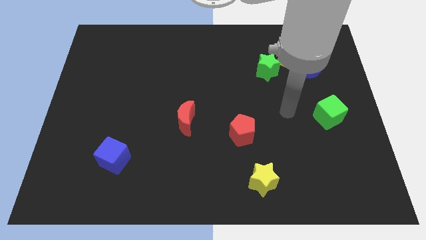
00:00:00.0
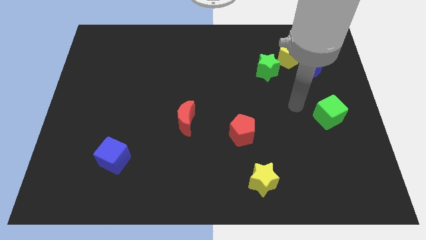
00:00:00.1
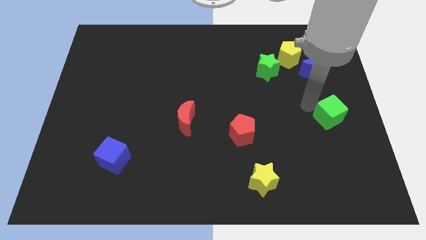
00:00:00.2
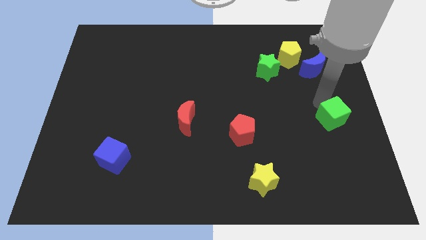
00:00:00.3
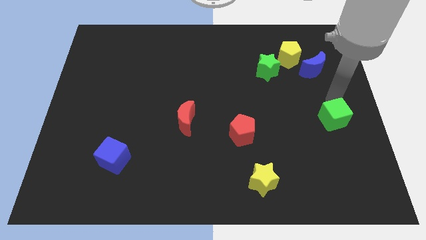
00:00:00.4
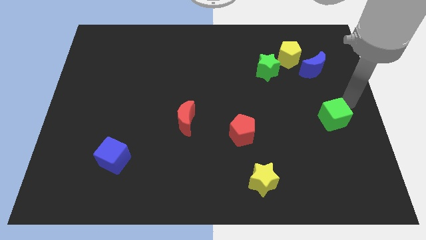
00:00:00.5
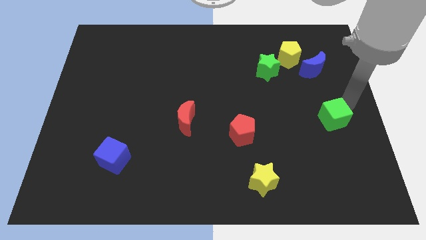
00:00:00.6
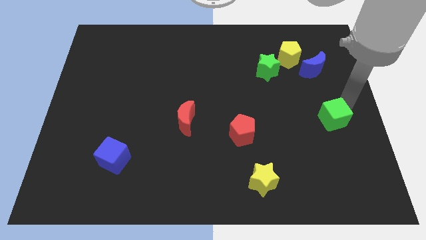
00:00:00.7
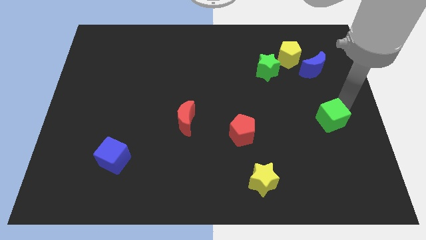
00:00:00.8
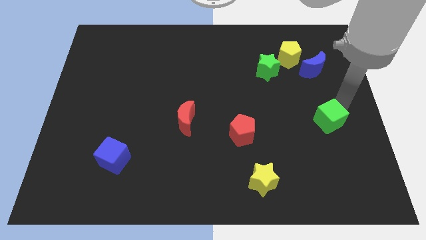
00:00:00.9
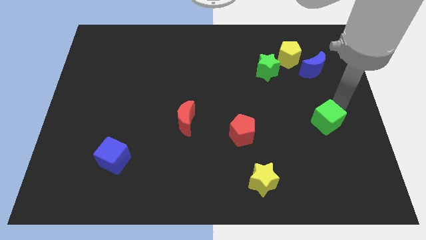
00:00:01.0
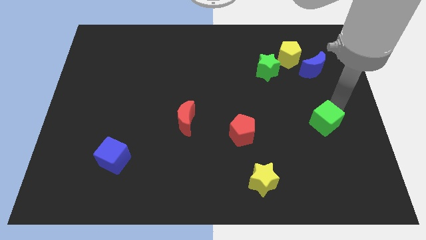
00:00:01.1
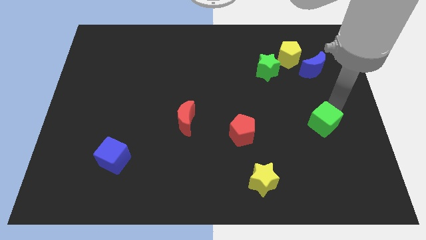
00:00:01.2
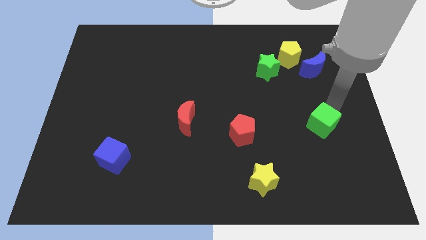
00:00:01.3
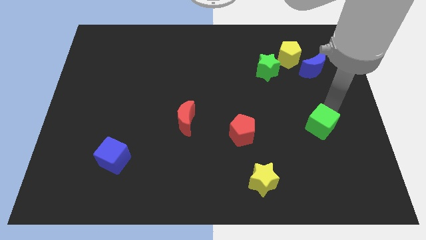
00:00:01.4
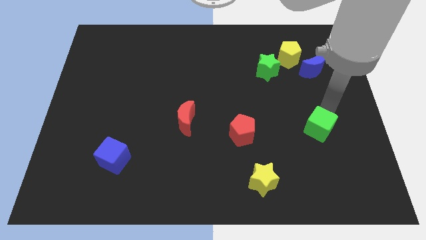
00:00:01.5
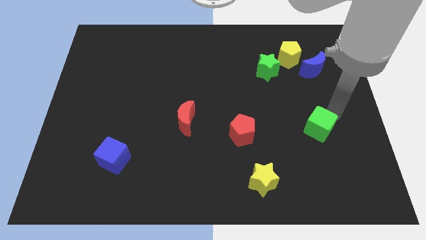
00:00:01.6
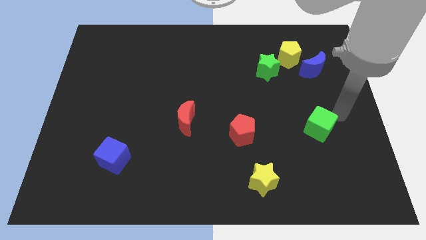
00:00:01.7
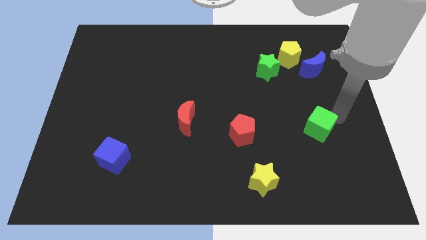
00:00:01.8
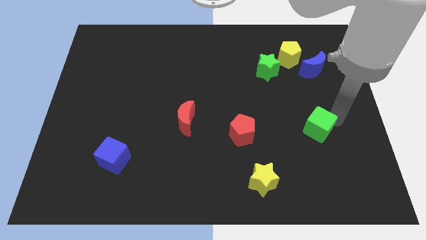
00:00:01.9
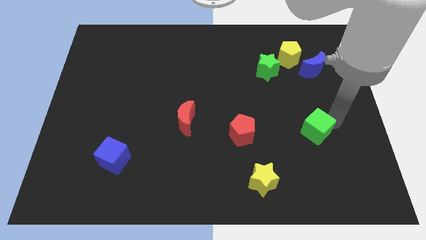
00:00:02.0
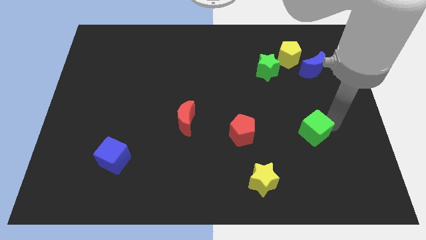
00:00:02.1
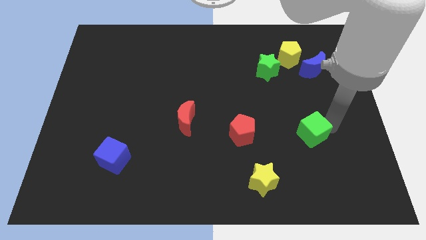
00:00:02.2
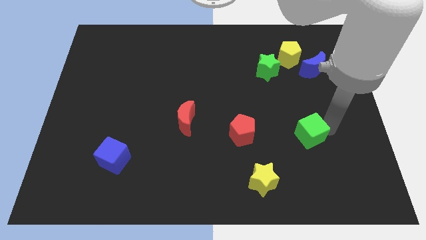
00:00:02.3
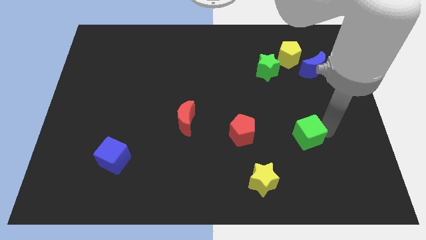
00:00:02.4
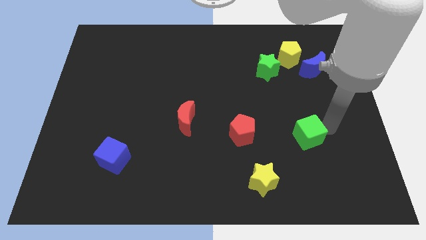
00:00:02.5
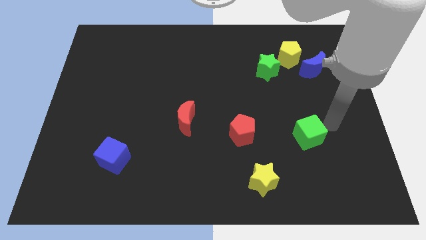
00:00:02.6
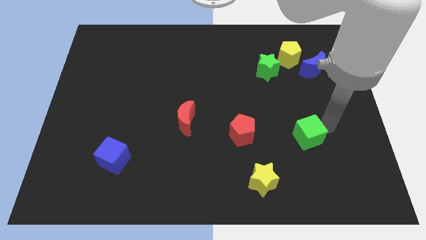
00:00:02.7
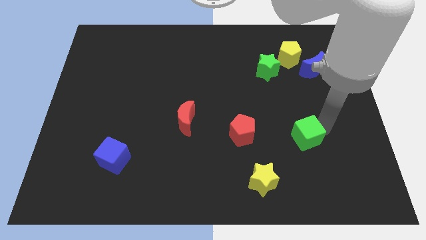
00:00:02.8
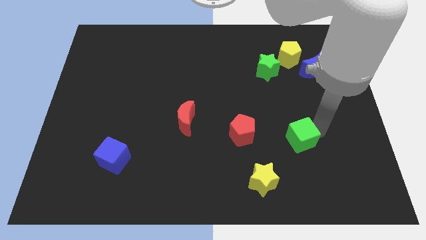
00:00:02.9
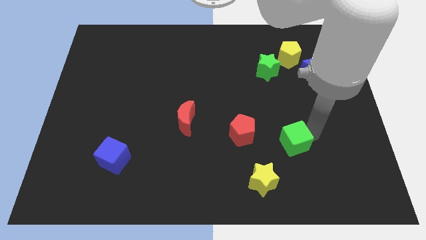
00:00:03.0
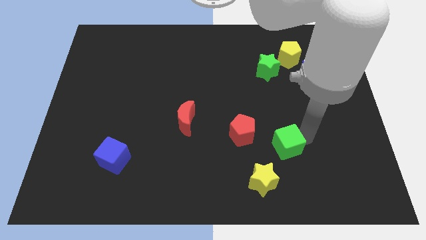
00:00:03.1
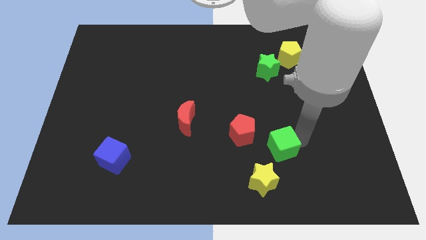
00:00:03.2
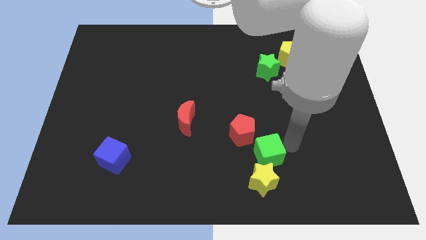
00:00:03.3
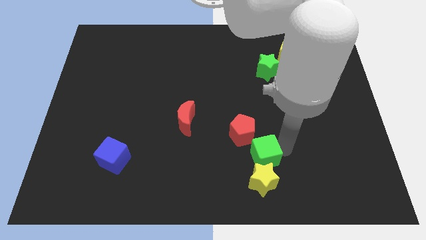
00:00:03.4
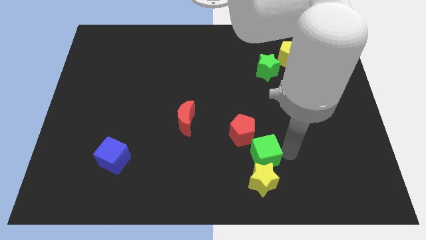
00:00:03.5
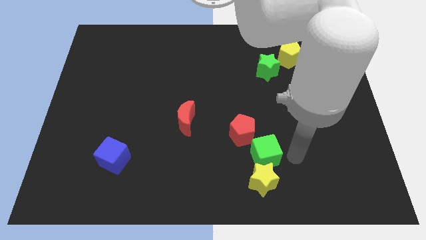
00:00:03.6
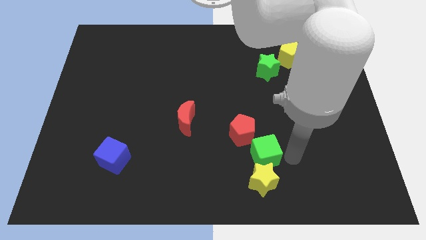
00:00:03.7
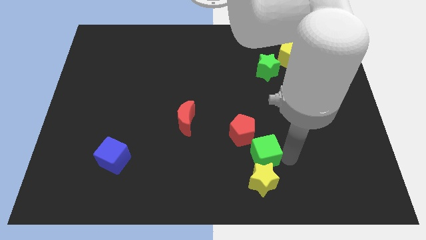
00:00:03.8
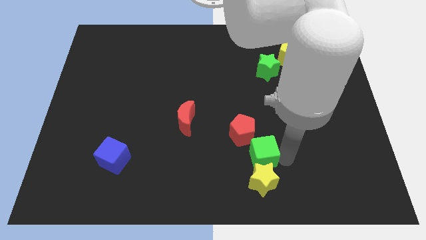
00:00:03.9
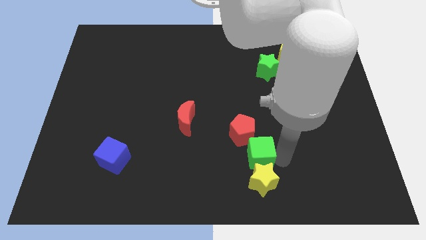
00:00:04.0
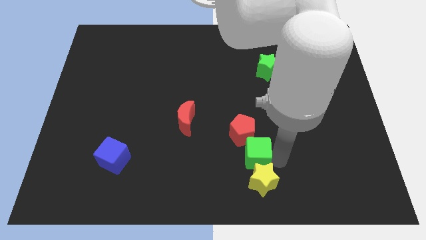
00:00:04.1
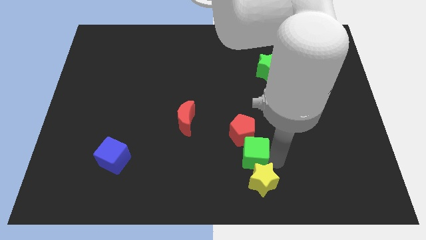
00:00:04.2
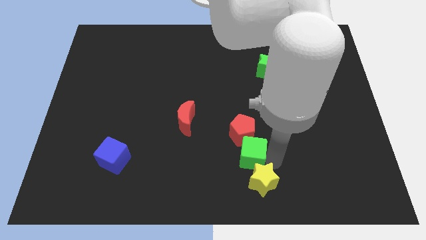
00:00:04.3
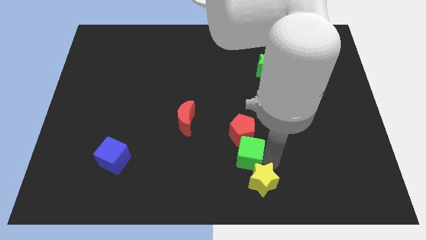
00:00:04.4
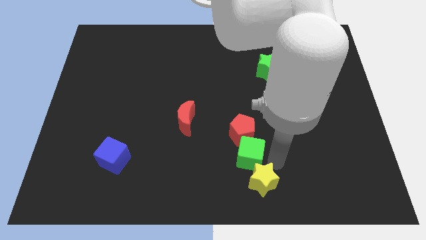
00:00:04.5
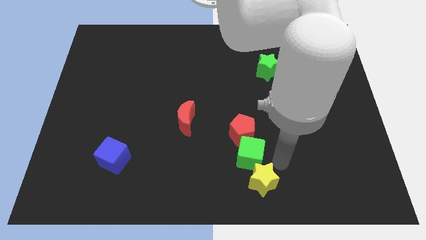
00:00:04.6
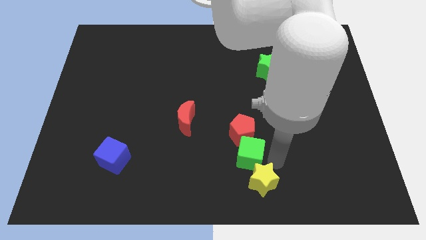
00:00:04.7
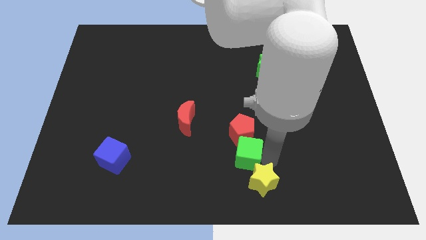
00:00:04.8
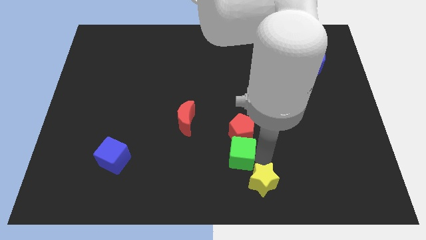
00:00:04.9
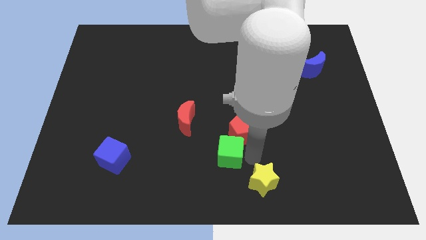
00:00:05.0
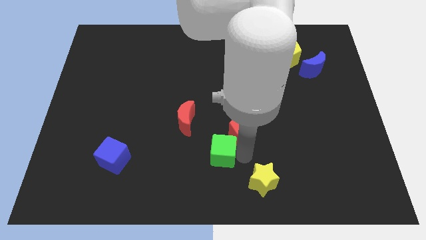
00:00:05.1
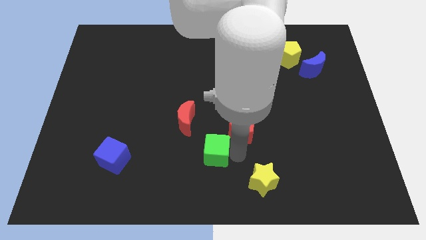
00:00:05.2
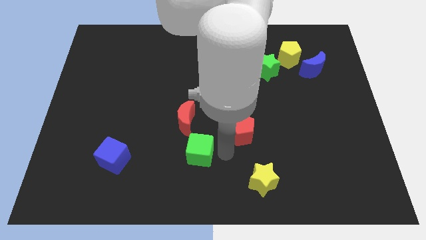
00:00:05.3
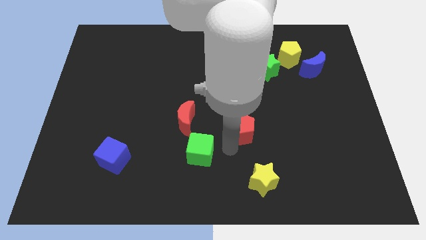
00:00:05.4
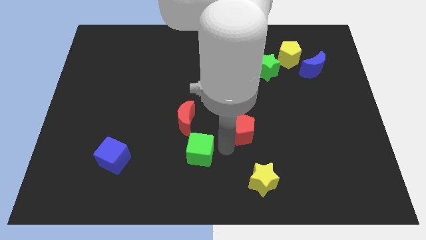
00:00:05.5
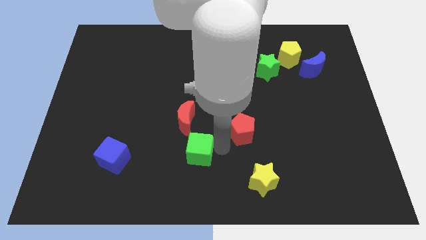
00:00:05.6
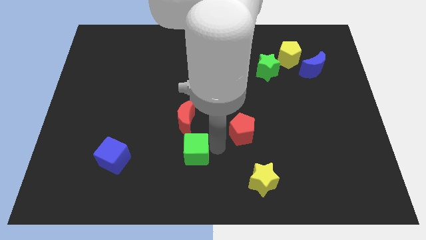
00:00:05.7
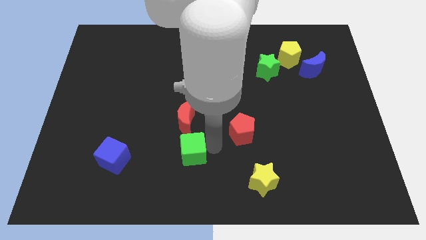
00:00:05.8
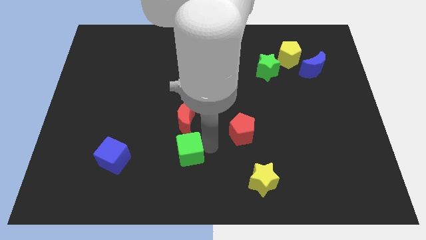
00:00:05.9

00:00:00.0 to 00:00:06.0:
move the green cube right of the blue cube

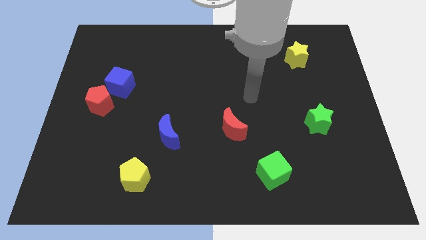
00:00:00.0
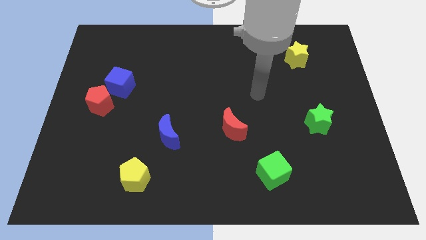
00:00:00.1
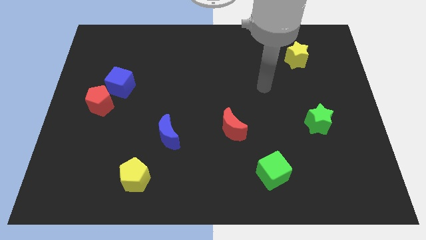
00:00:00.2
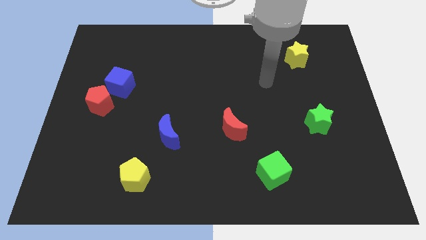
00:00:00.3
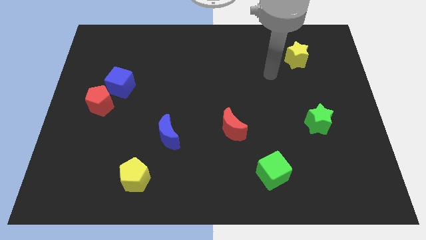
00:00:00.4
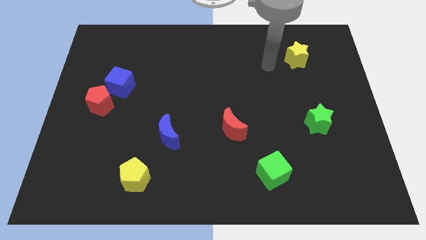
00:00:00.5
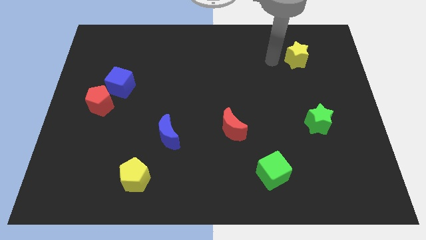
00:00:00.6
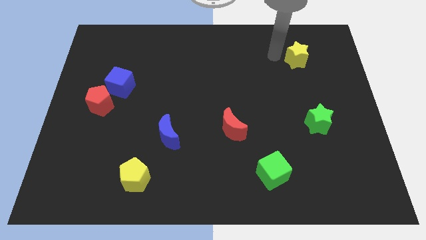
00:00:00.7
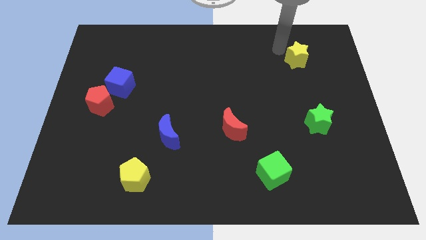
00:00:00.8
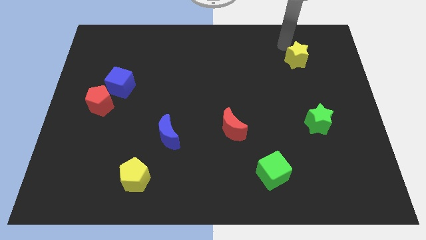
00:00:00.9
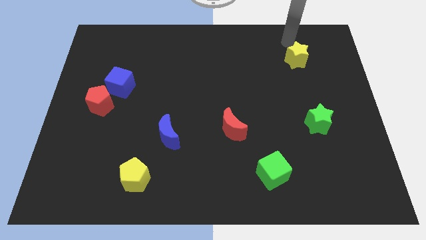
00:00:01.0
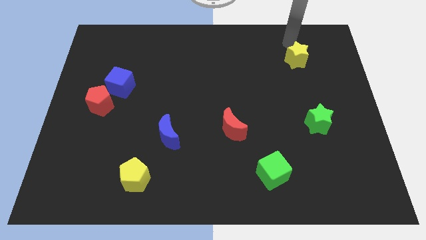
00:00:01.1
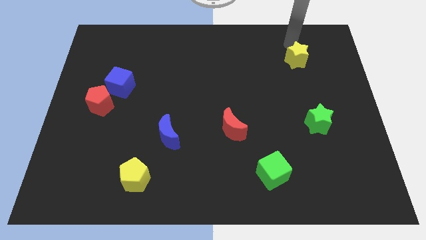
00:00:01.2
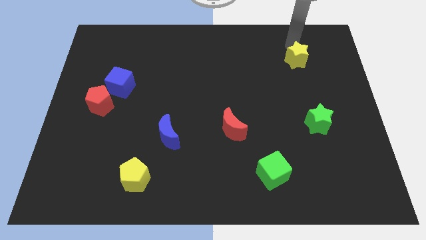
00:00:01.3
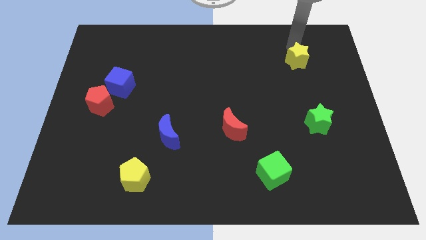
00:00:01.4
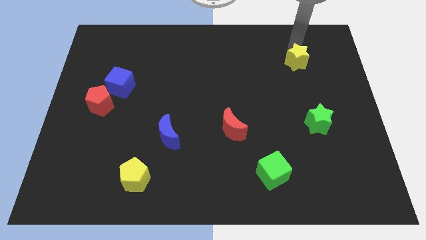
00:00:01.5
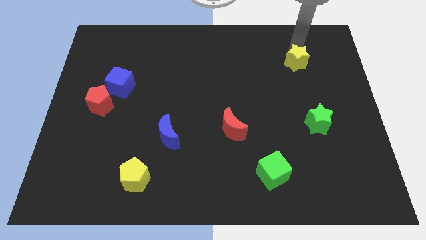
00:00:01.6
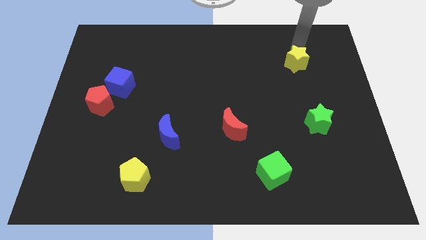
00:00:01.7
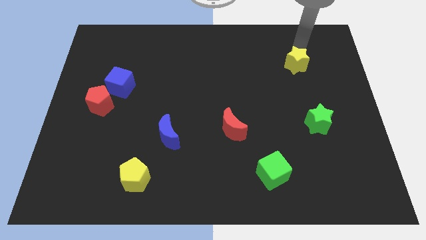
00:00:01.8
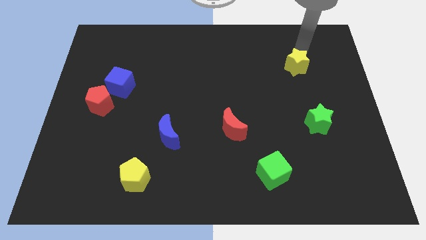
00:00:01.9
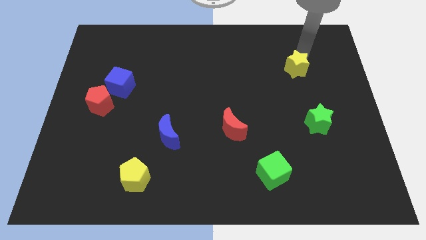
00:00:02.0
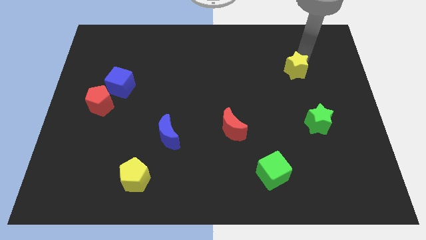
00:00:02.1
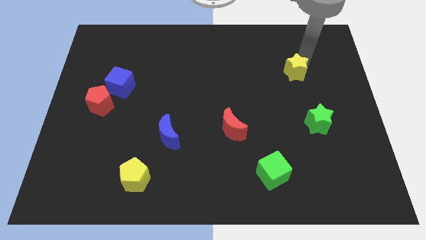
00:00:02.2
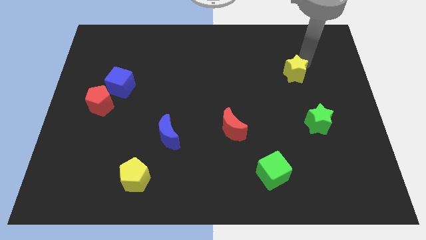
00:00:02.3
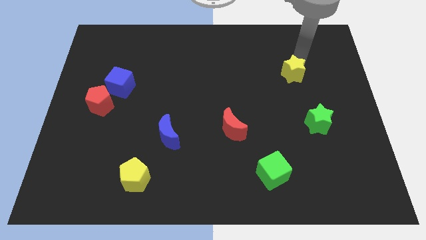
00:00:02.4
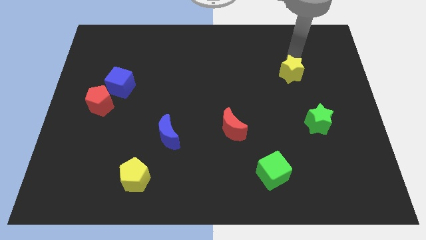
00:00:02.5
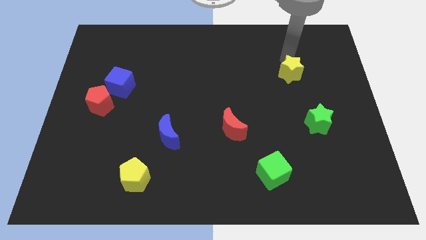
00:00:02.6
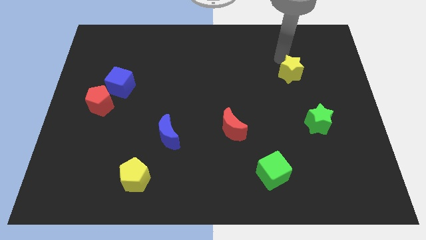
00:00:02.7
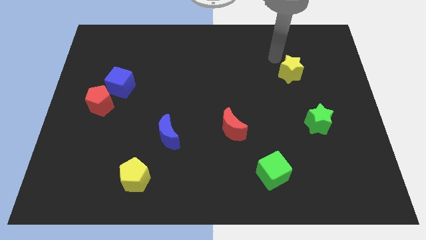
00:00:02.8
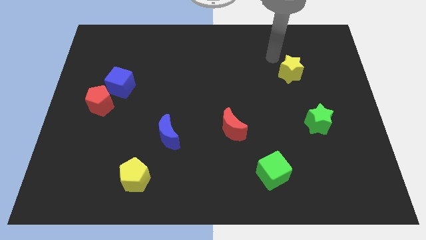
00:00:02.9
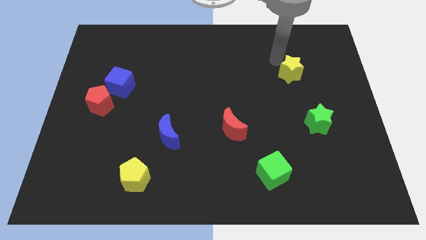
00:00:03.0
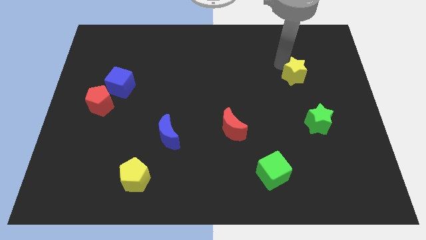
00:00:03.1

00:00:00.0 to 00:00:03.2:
move the yellow star above the green star
